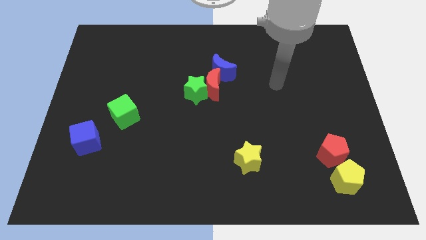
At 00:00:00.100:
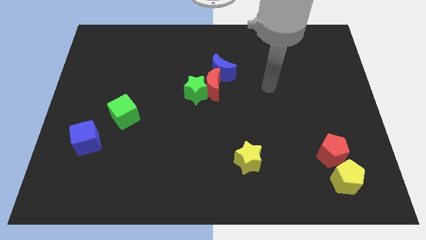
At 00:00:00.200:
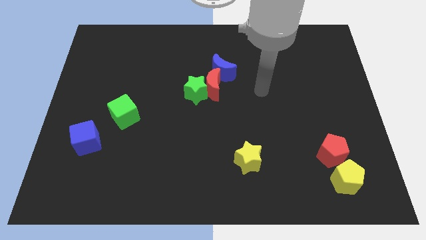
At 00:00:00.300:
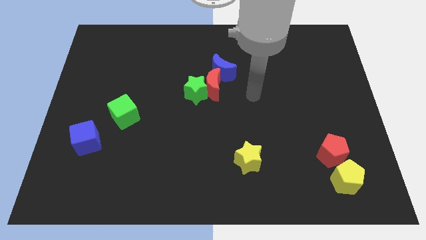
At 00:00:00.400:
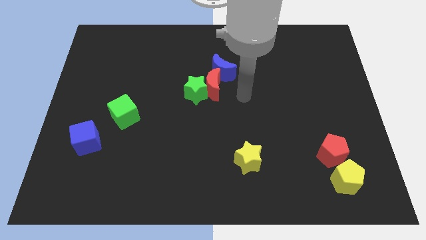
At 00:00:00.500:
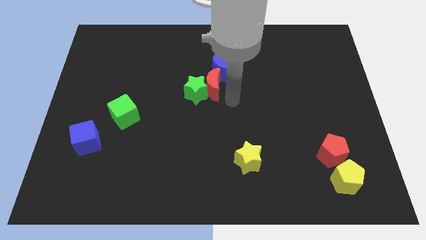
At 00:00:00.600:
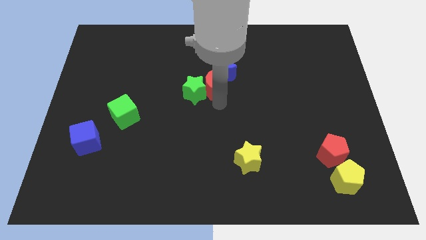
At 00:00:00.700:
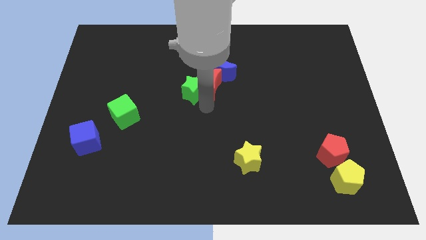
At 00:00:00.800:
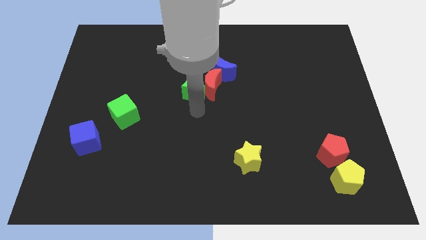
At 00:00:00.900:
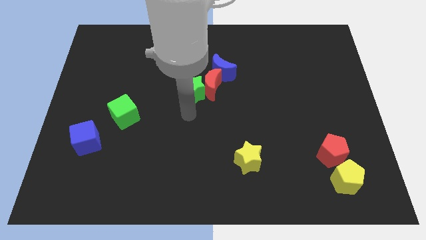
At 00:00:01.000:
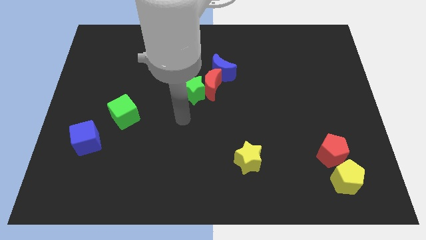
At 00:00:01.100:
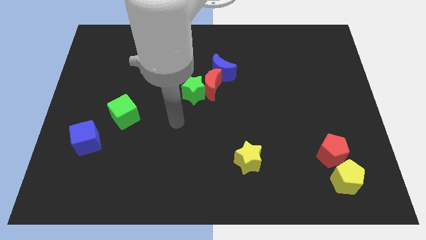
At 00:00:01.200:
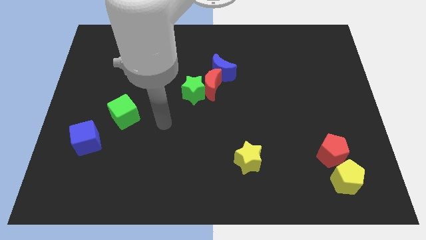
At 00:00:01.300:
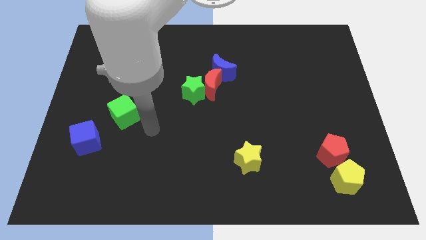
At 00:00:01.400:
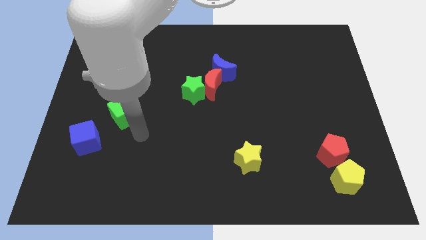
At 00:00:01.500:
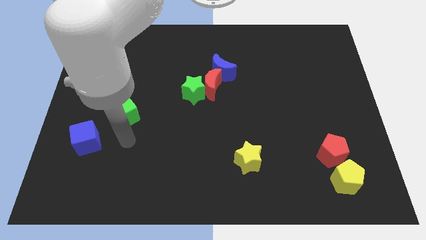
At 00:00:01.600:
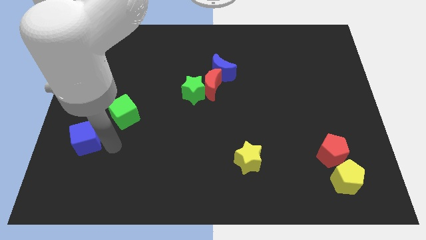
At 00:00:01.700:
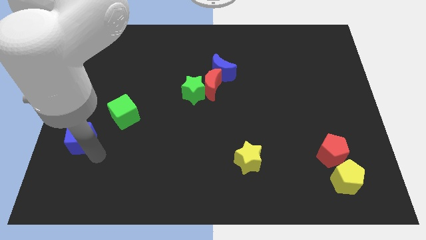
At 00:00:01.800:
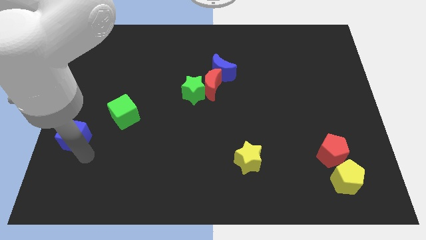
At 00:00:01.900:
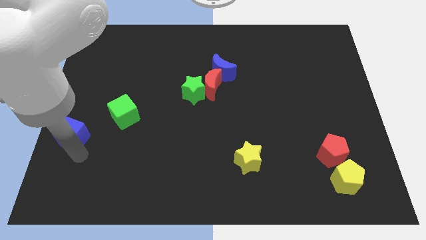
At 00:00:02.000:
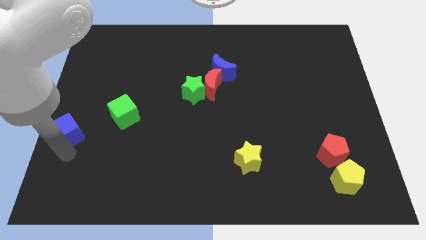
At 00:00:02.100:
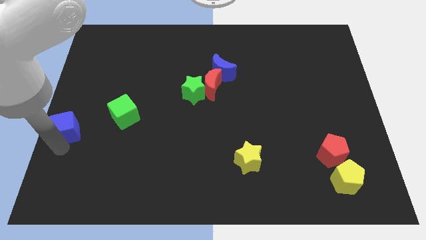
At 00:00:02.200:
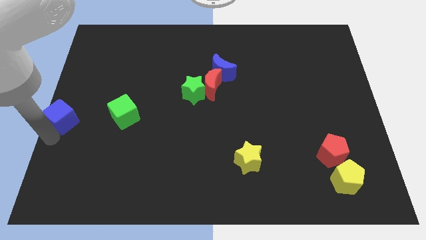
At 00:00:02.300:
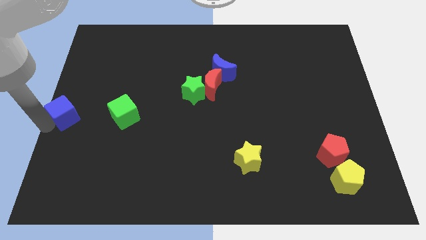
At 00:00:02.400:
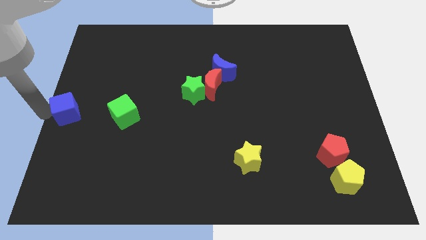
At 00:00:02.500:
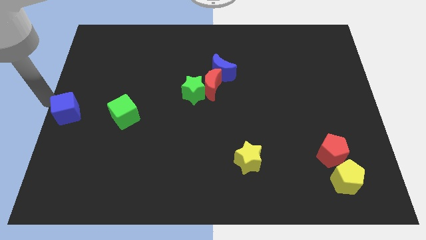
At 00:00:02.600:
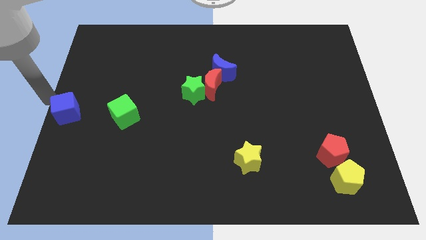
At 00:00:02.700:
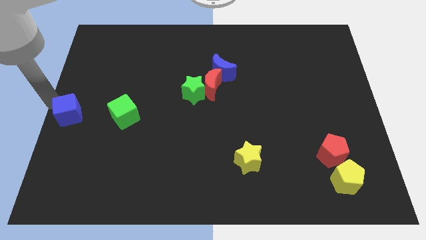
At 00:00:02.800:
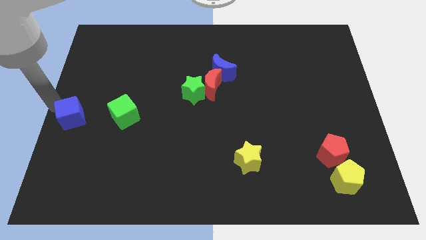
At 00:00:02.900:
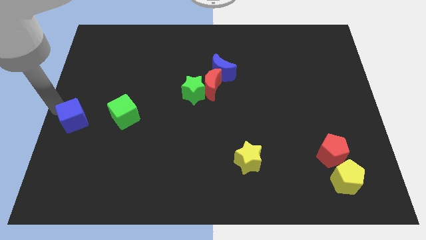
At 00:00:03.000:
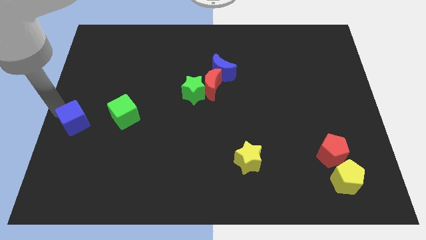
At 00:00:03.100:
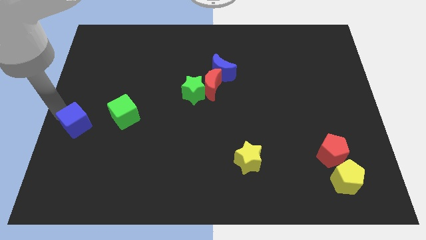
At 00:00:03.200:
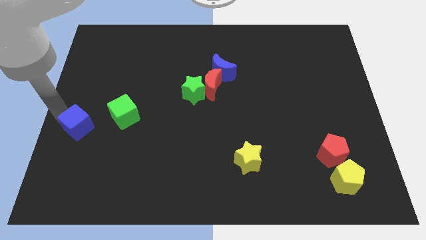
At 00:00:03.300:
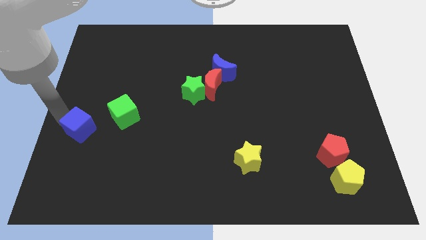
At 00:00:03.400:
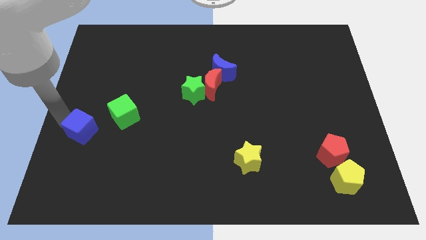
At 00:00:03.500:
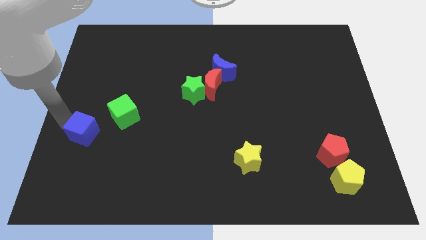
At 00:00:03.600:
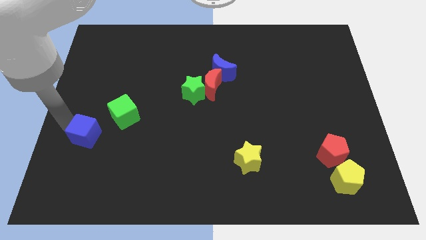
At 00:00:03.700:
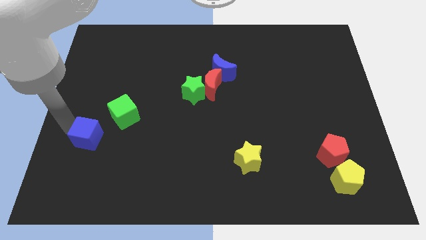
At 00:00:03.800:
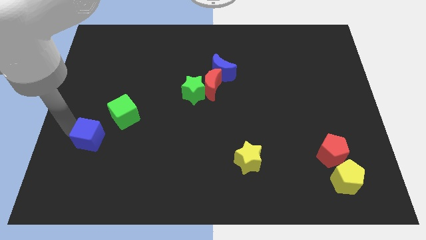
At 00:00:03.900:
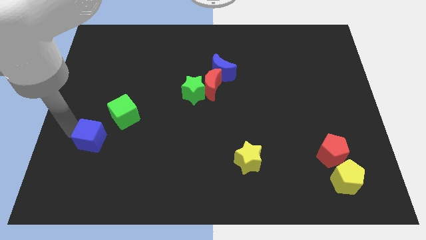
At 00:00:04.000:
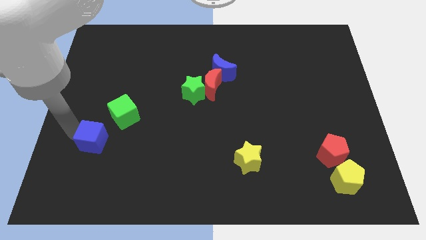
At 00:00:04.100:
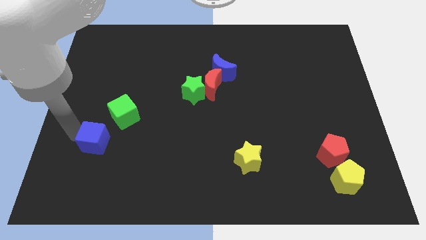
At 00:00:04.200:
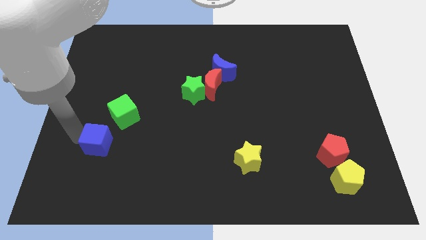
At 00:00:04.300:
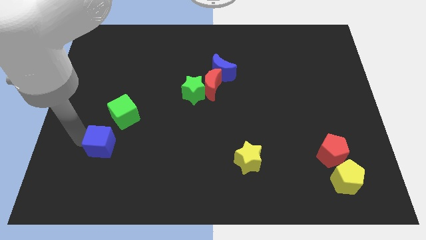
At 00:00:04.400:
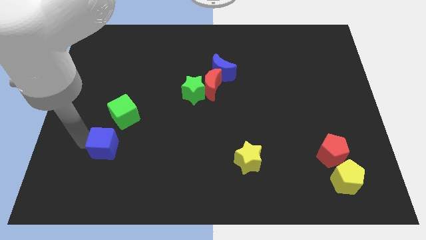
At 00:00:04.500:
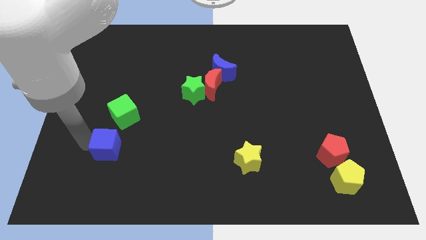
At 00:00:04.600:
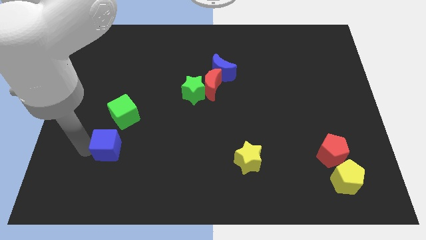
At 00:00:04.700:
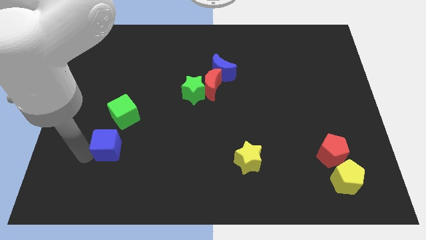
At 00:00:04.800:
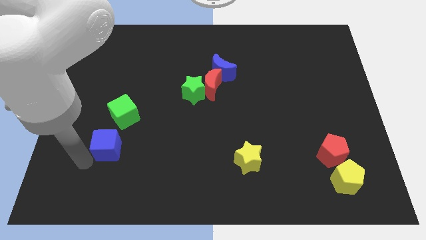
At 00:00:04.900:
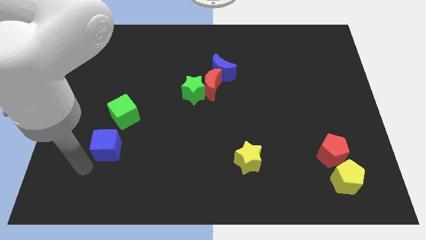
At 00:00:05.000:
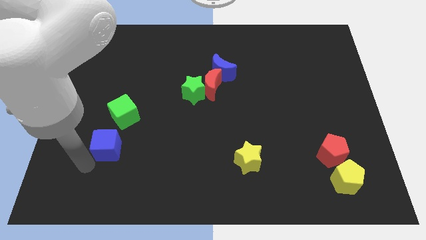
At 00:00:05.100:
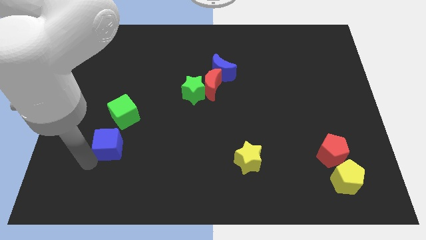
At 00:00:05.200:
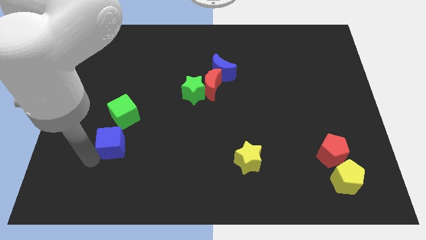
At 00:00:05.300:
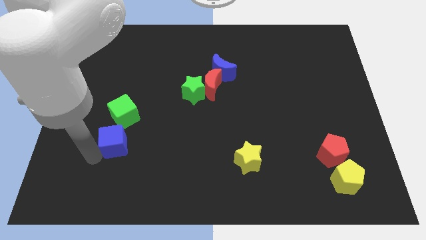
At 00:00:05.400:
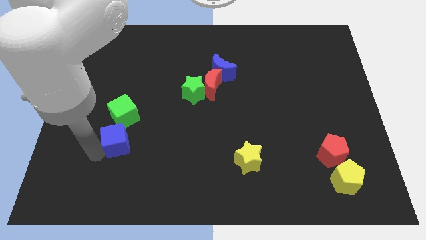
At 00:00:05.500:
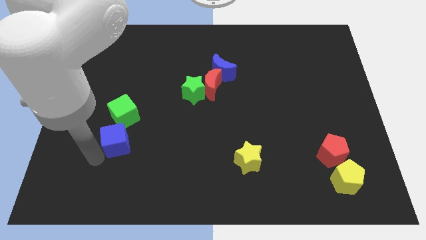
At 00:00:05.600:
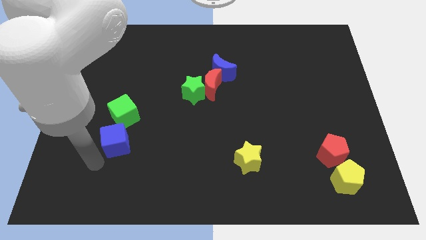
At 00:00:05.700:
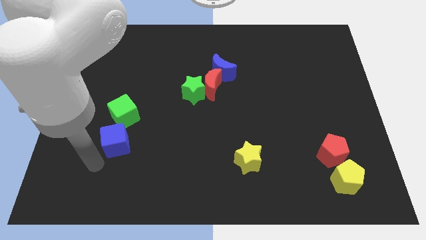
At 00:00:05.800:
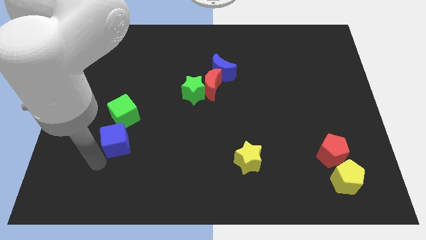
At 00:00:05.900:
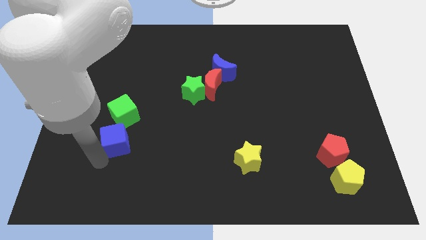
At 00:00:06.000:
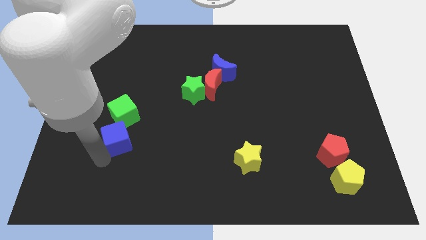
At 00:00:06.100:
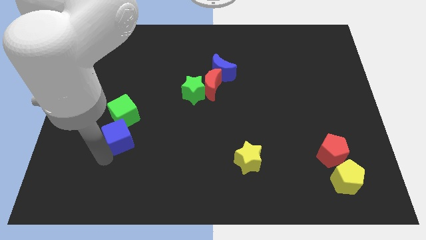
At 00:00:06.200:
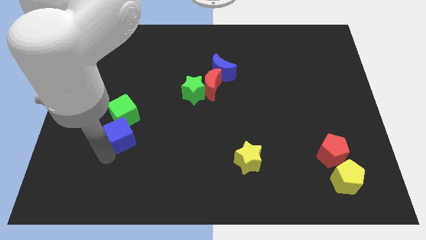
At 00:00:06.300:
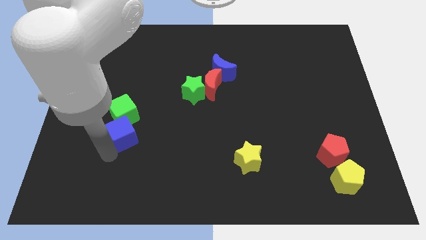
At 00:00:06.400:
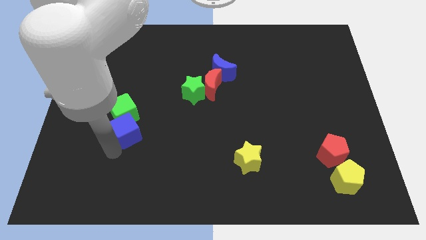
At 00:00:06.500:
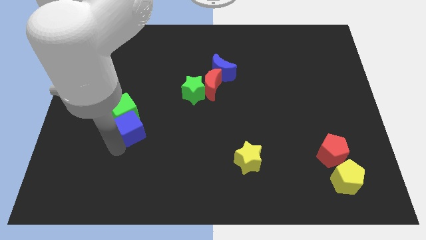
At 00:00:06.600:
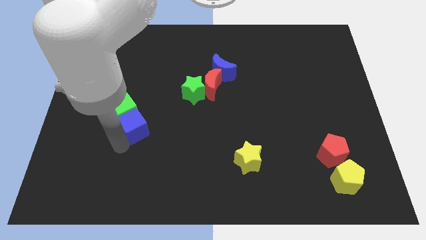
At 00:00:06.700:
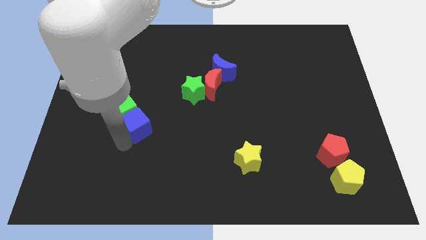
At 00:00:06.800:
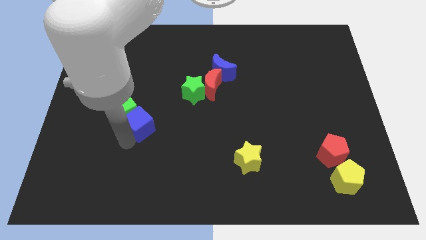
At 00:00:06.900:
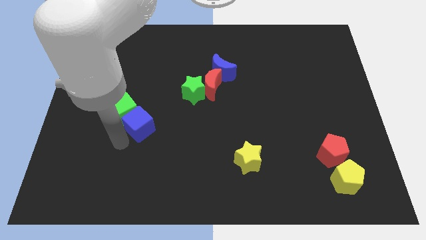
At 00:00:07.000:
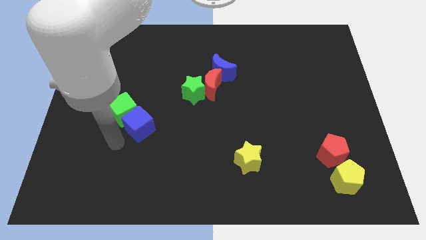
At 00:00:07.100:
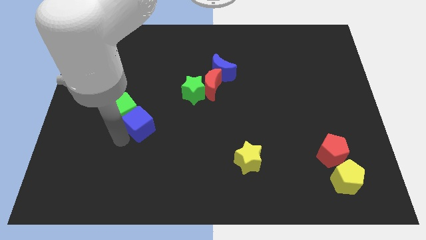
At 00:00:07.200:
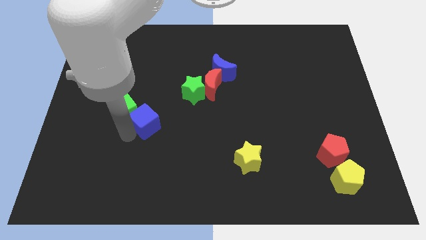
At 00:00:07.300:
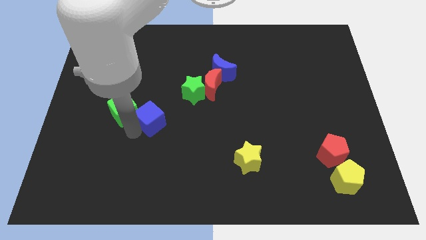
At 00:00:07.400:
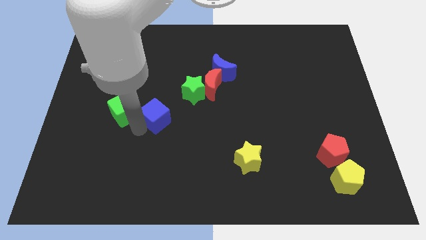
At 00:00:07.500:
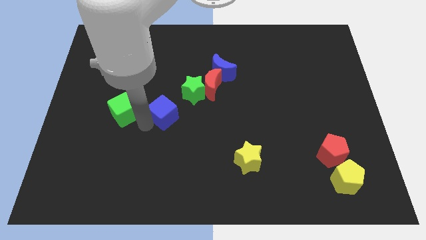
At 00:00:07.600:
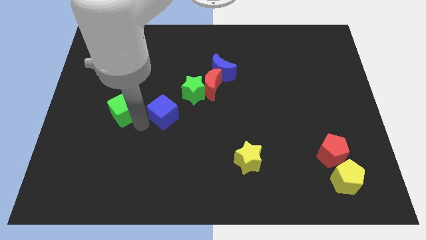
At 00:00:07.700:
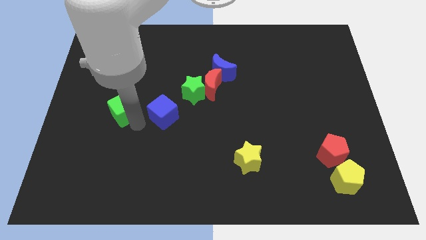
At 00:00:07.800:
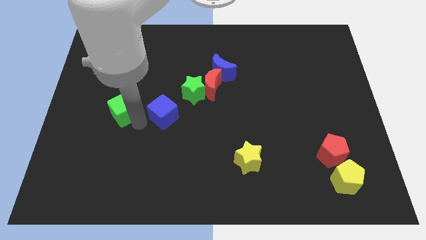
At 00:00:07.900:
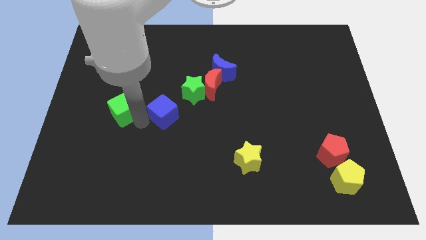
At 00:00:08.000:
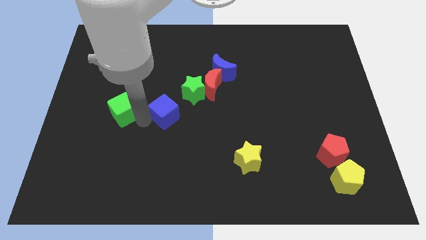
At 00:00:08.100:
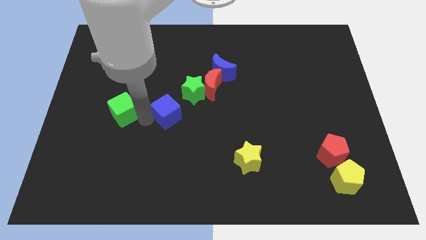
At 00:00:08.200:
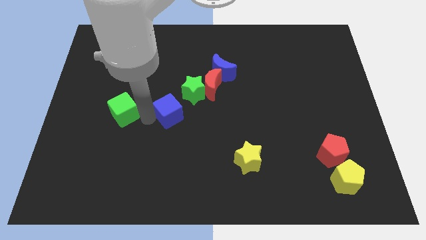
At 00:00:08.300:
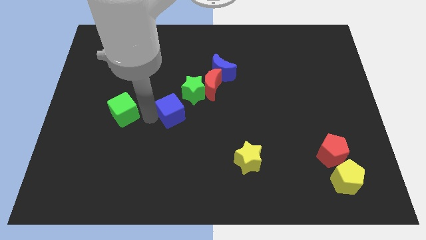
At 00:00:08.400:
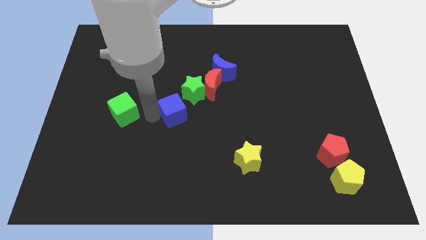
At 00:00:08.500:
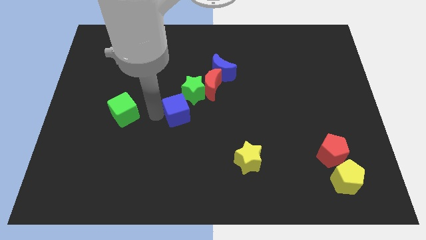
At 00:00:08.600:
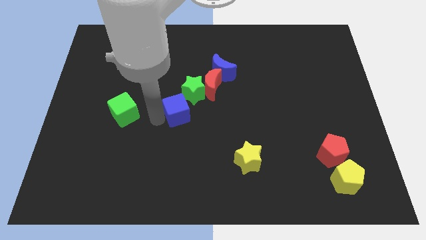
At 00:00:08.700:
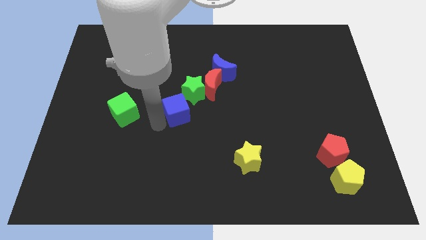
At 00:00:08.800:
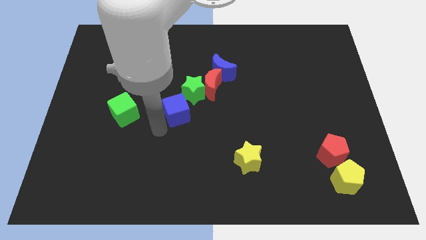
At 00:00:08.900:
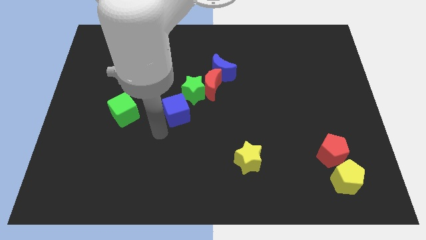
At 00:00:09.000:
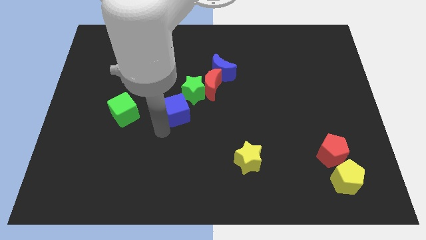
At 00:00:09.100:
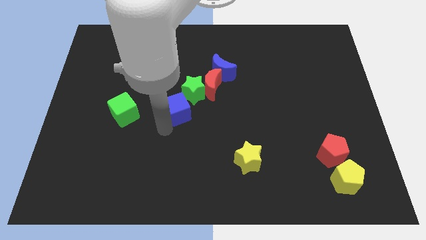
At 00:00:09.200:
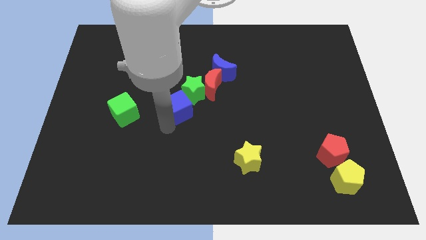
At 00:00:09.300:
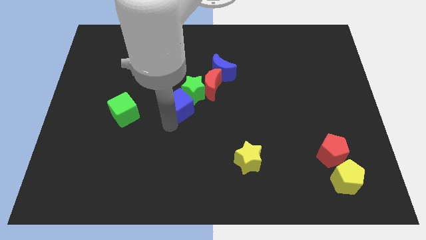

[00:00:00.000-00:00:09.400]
slide the blue cube towards the green star
